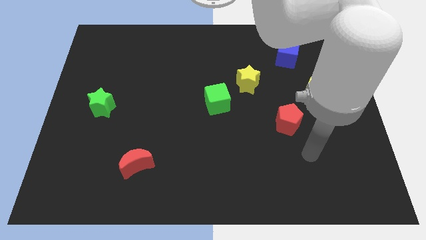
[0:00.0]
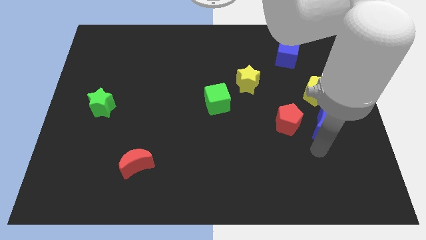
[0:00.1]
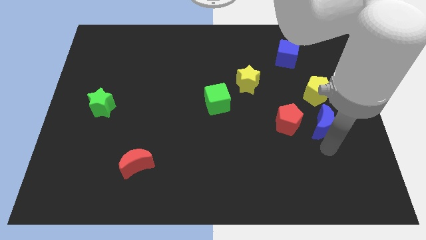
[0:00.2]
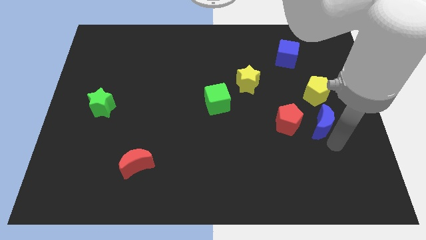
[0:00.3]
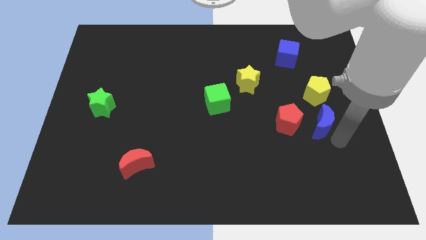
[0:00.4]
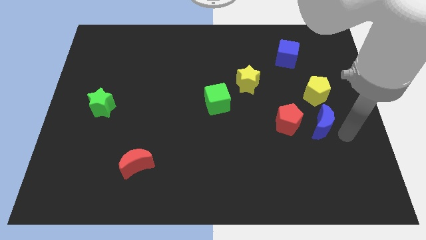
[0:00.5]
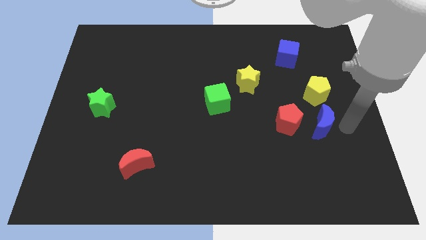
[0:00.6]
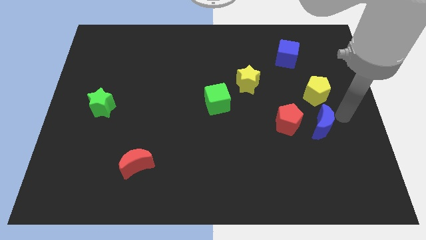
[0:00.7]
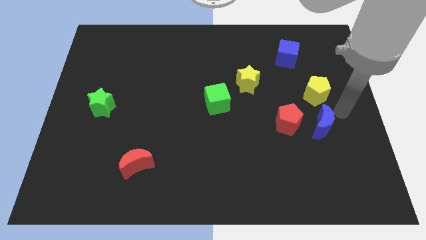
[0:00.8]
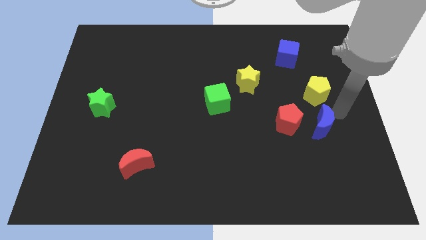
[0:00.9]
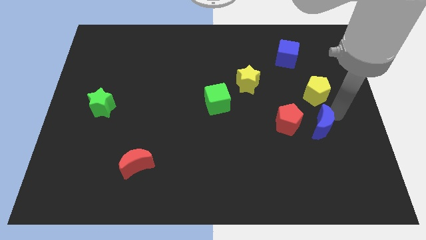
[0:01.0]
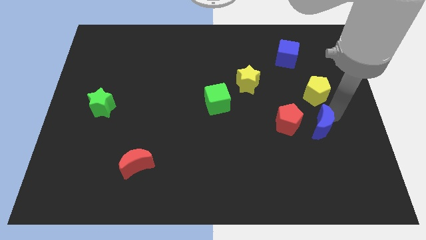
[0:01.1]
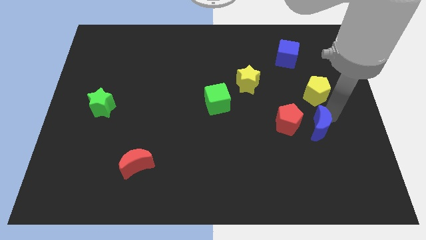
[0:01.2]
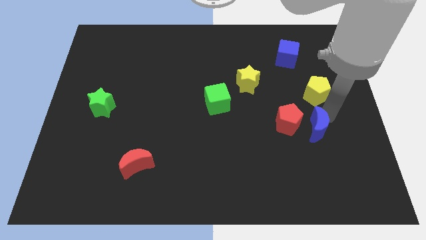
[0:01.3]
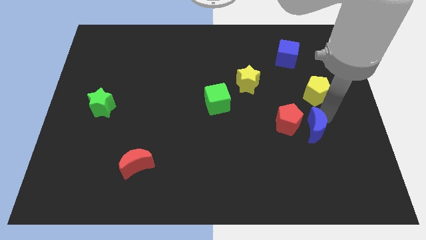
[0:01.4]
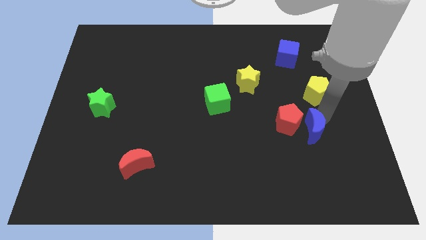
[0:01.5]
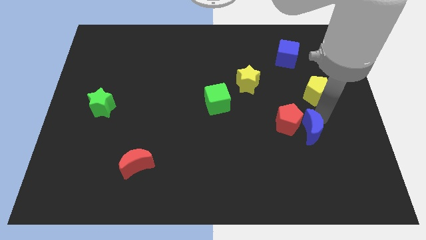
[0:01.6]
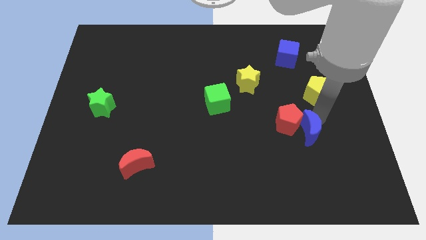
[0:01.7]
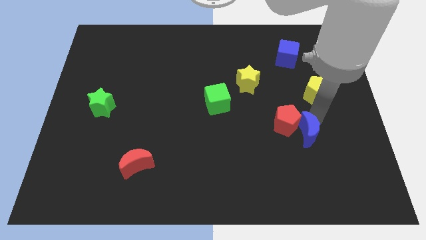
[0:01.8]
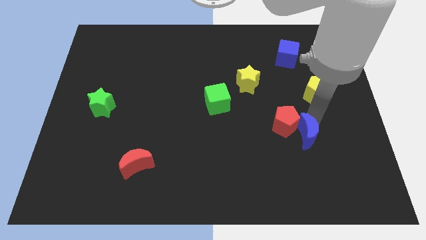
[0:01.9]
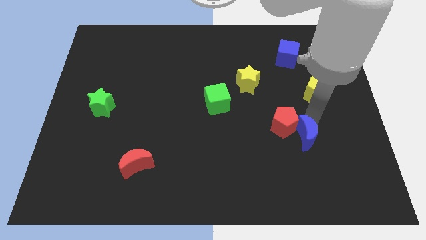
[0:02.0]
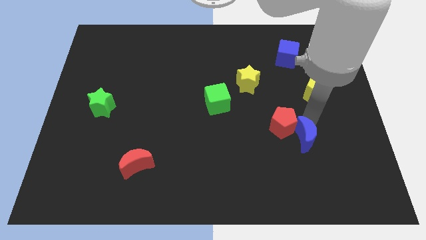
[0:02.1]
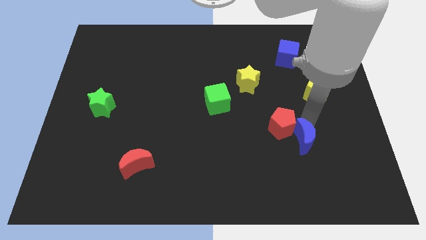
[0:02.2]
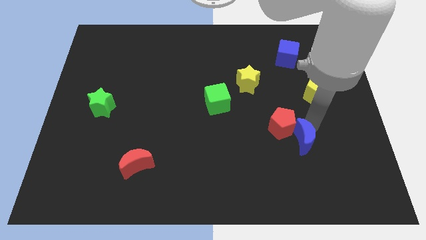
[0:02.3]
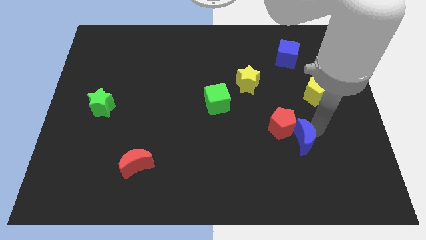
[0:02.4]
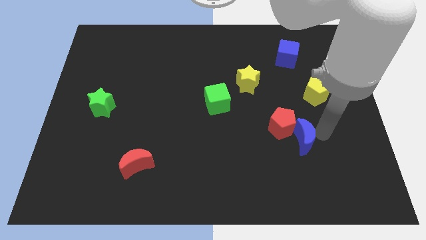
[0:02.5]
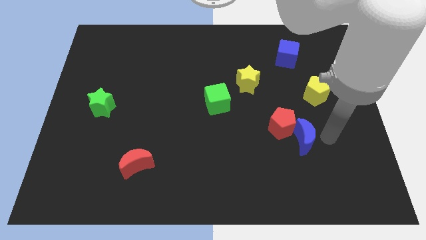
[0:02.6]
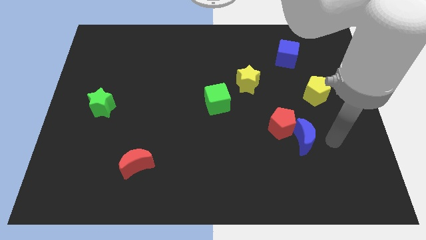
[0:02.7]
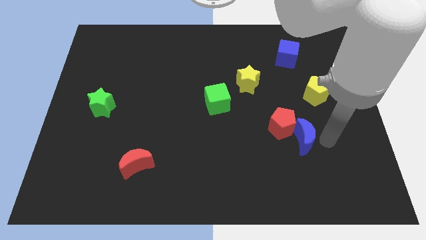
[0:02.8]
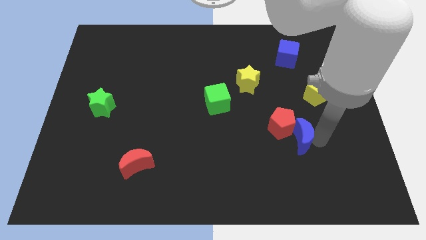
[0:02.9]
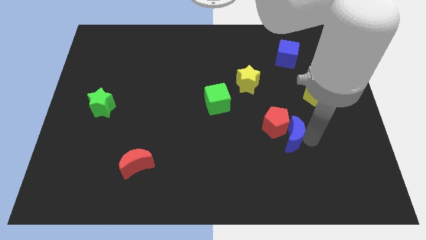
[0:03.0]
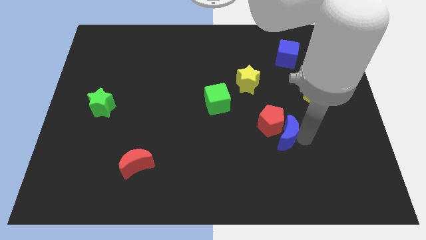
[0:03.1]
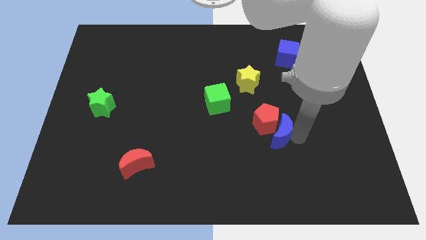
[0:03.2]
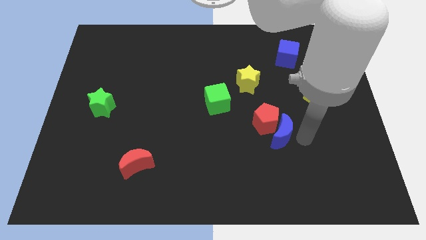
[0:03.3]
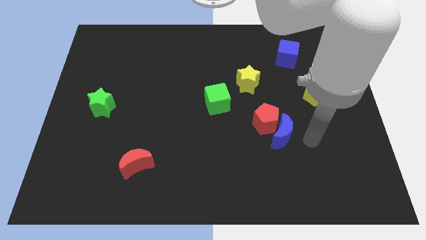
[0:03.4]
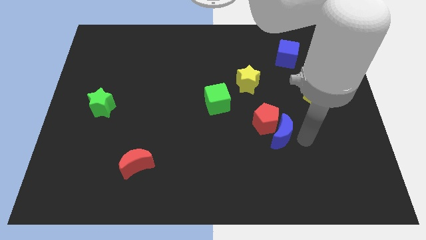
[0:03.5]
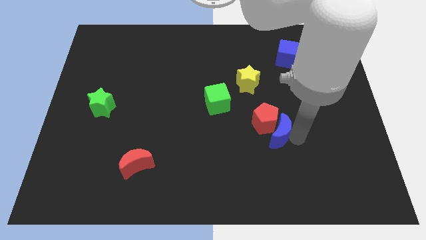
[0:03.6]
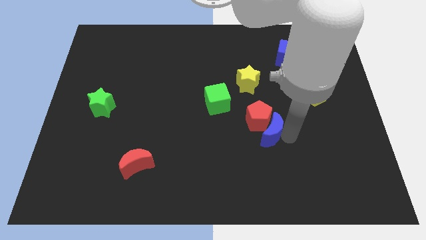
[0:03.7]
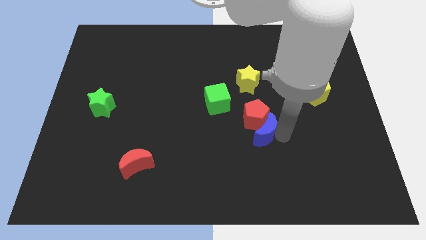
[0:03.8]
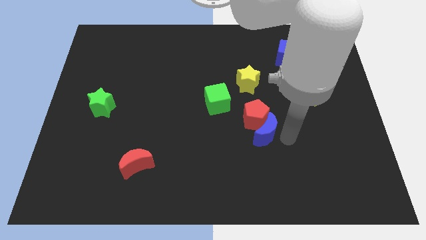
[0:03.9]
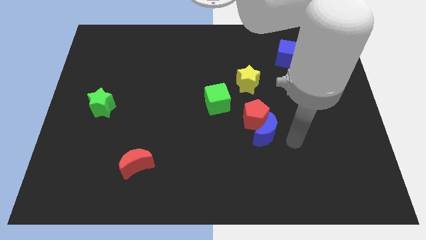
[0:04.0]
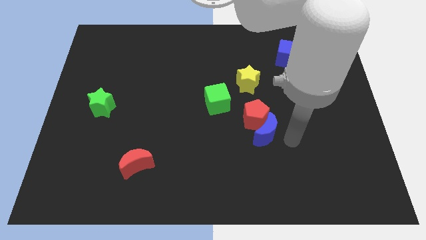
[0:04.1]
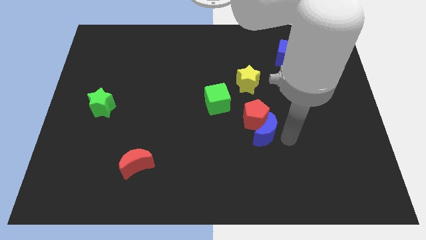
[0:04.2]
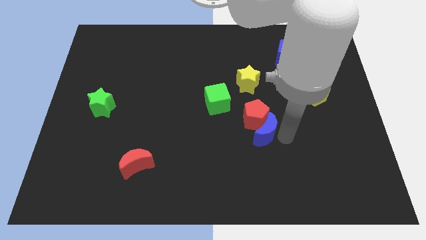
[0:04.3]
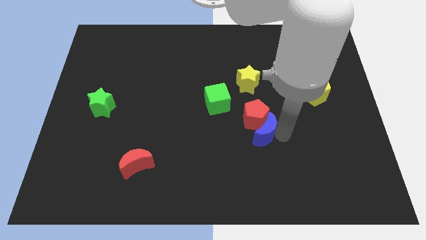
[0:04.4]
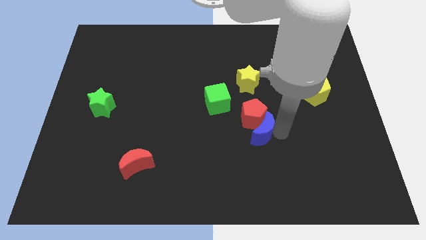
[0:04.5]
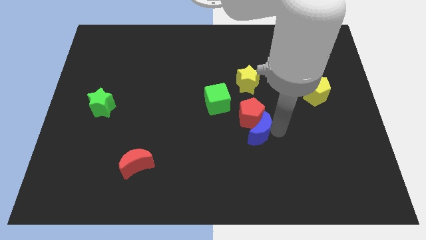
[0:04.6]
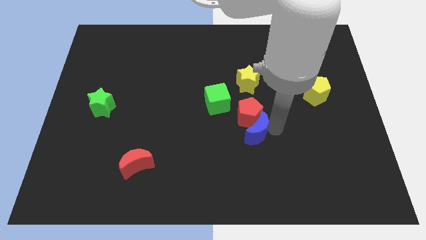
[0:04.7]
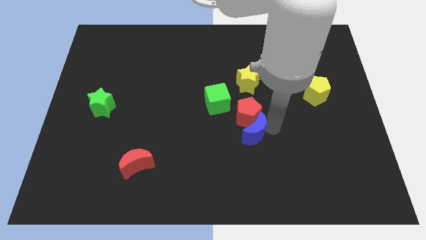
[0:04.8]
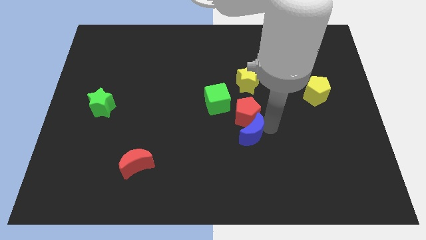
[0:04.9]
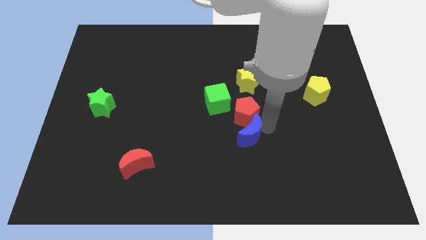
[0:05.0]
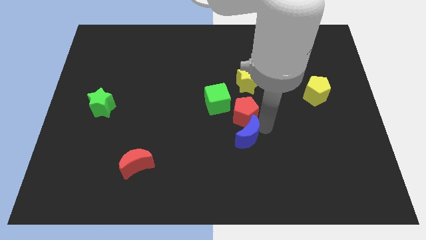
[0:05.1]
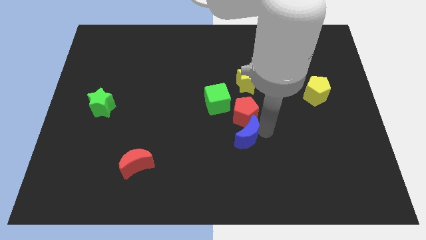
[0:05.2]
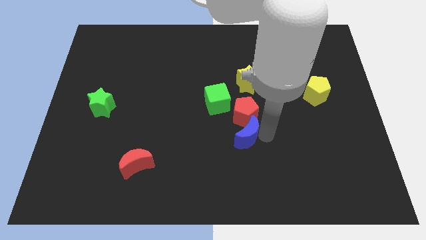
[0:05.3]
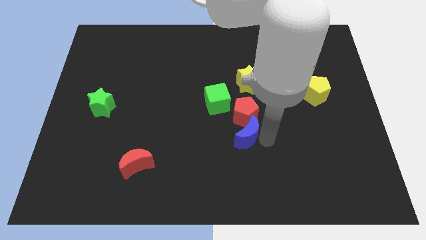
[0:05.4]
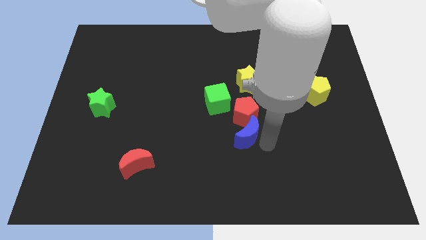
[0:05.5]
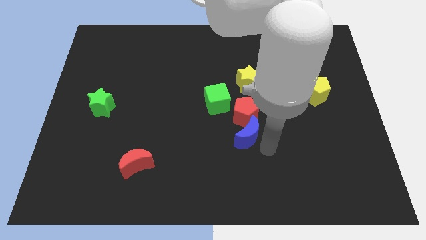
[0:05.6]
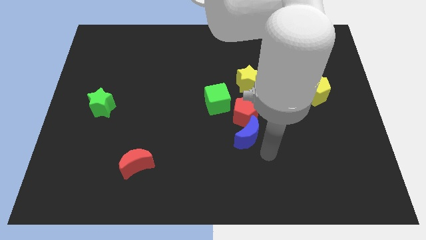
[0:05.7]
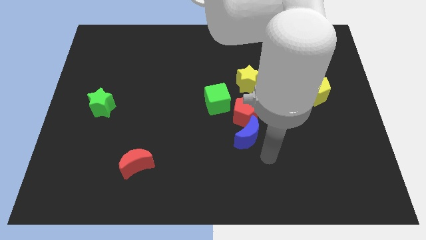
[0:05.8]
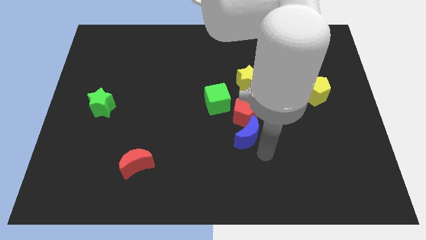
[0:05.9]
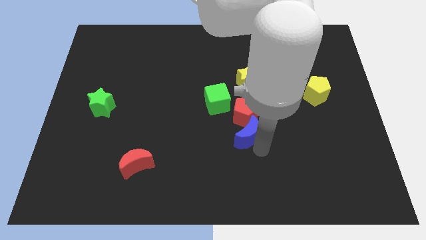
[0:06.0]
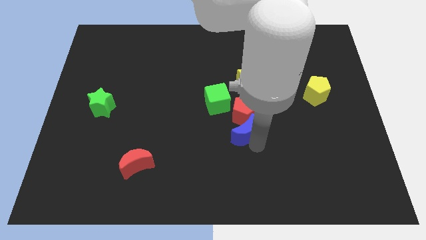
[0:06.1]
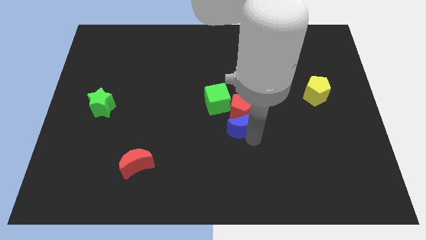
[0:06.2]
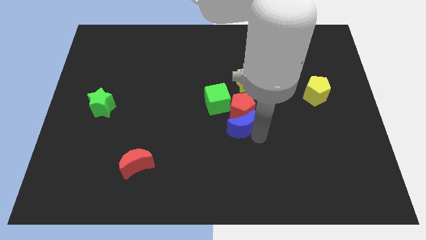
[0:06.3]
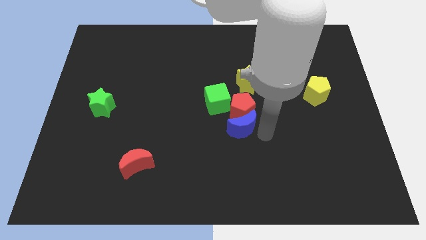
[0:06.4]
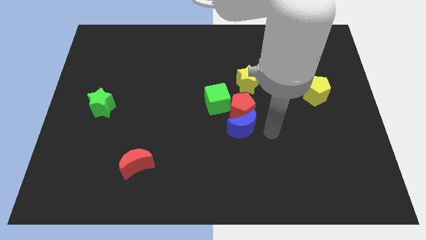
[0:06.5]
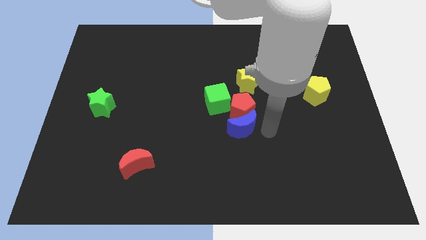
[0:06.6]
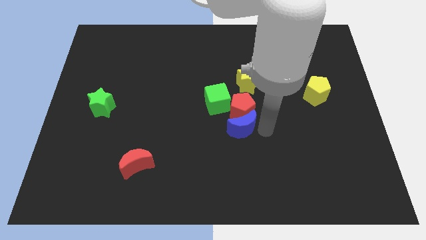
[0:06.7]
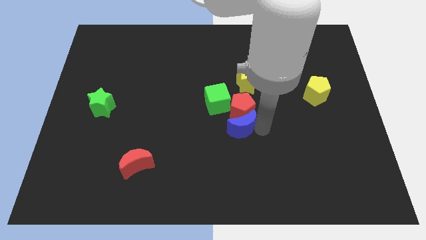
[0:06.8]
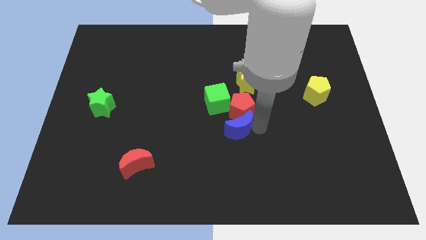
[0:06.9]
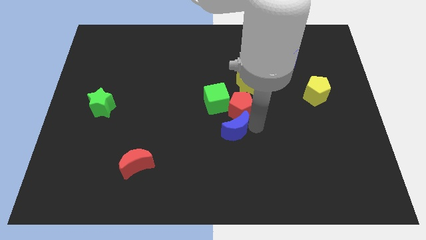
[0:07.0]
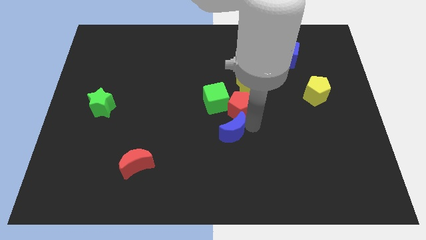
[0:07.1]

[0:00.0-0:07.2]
move the blue moon to the left
